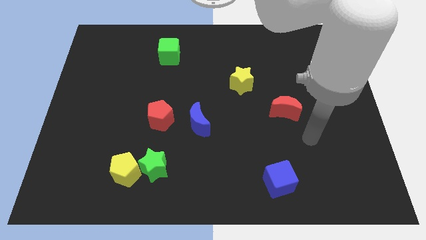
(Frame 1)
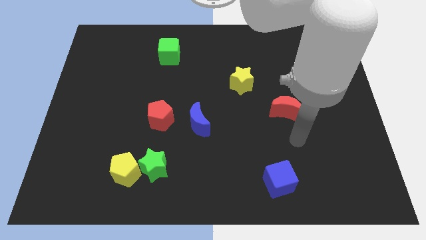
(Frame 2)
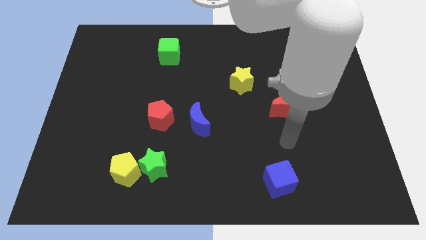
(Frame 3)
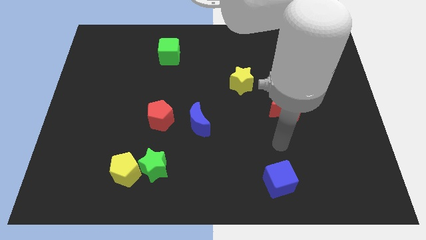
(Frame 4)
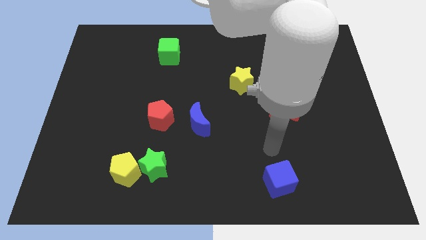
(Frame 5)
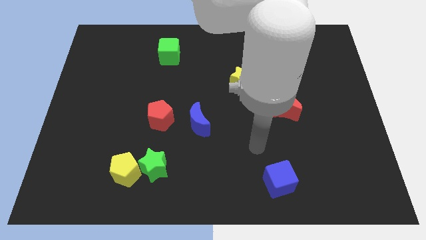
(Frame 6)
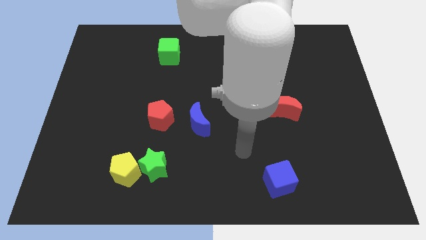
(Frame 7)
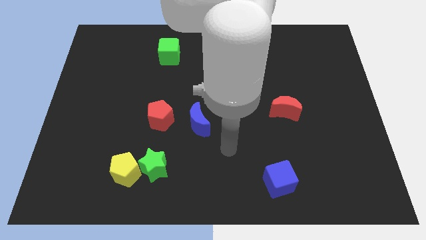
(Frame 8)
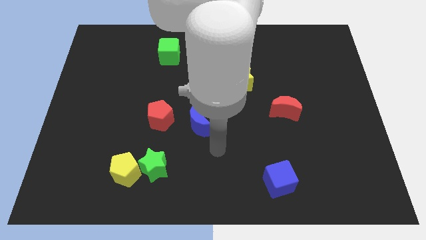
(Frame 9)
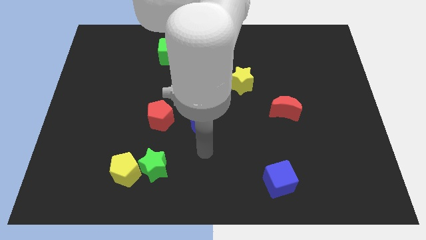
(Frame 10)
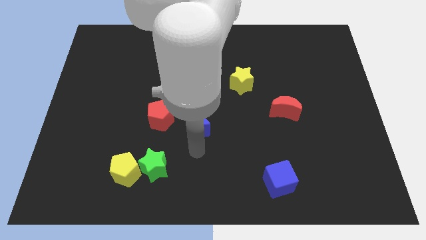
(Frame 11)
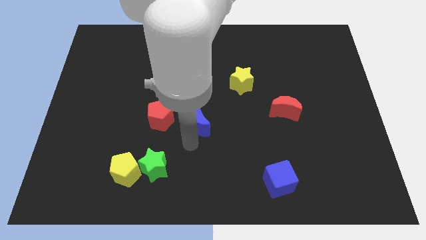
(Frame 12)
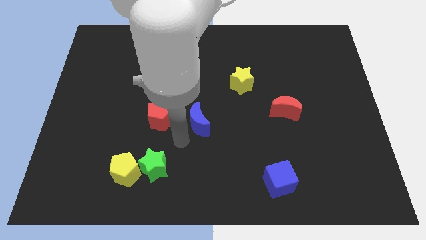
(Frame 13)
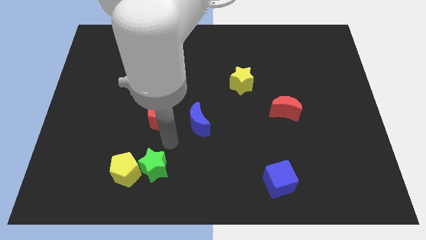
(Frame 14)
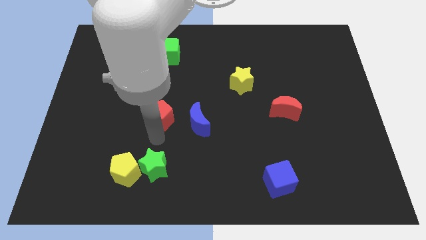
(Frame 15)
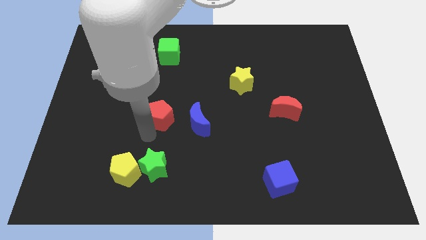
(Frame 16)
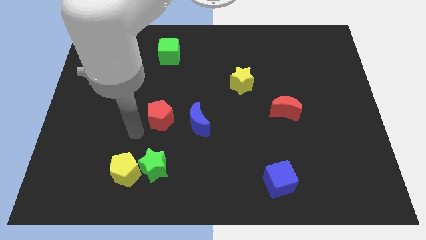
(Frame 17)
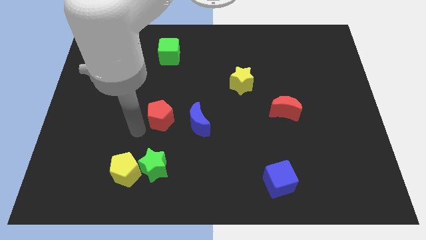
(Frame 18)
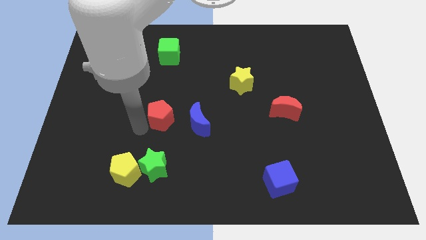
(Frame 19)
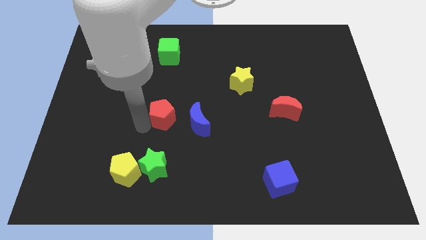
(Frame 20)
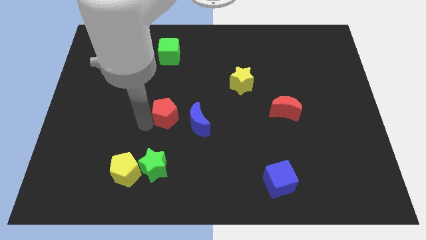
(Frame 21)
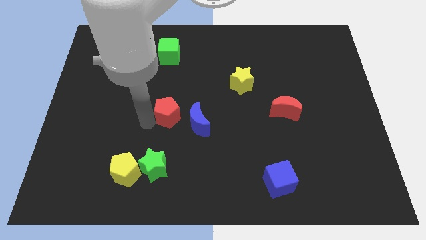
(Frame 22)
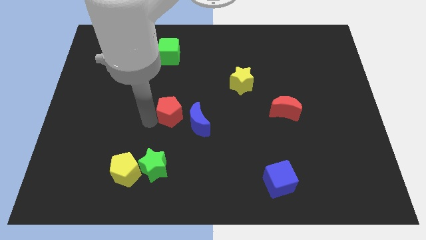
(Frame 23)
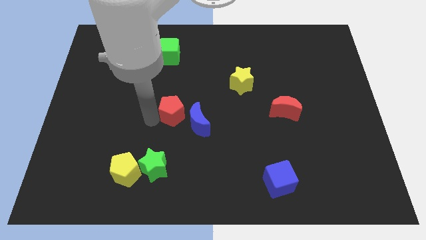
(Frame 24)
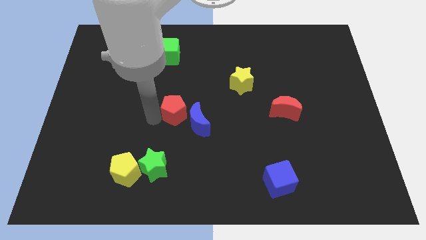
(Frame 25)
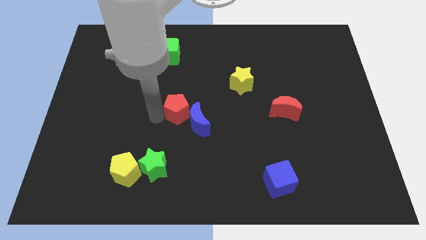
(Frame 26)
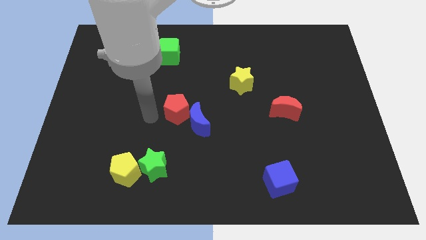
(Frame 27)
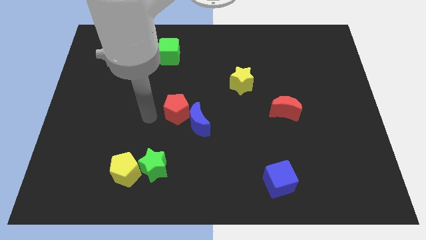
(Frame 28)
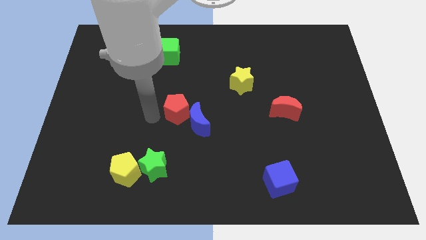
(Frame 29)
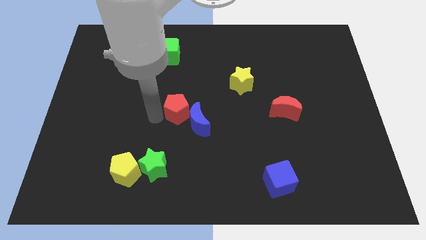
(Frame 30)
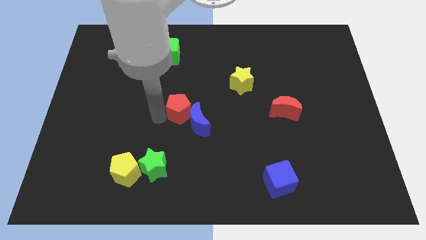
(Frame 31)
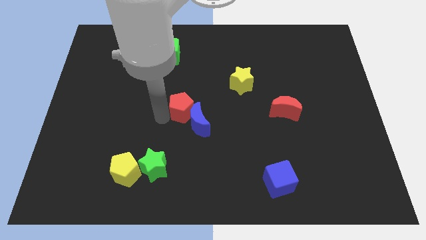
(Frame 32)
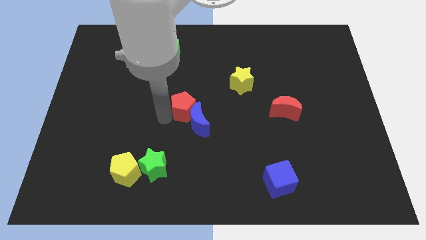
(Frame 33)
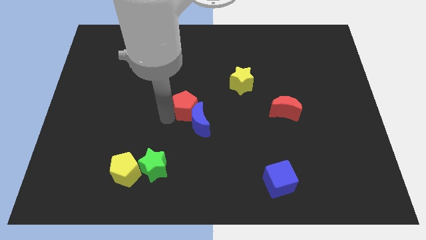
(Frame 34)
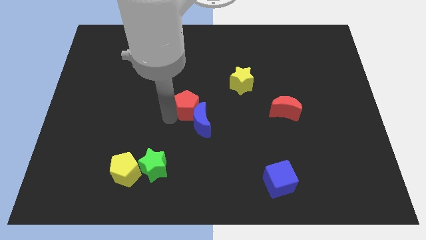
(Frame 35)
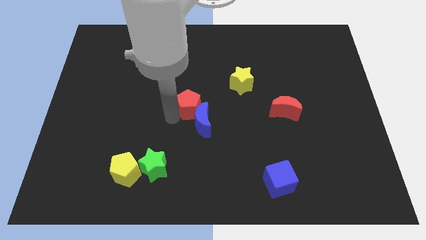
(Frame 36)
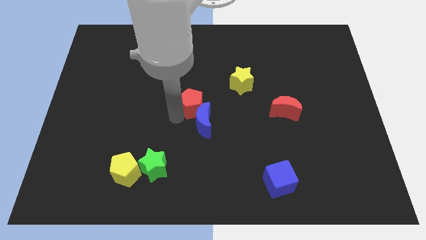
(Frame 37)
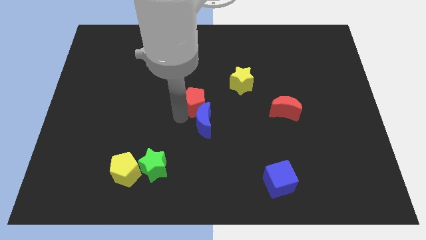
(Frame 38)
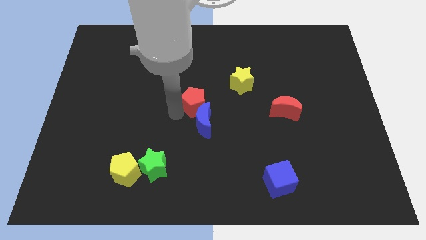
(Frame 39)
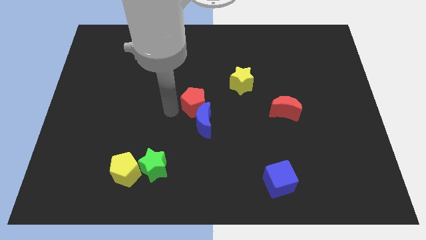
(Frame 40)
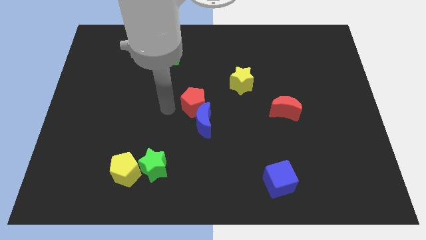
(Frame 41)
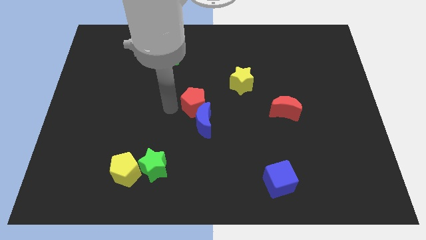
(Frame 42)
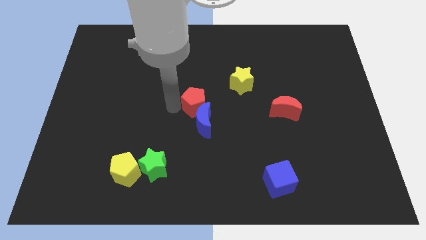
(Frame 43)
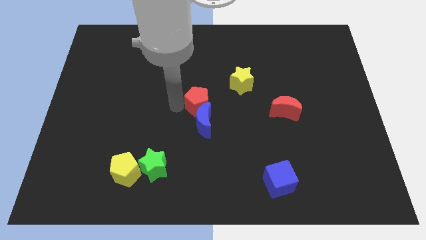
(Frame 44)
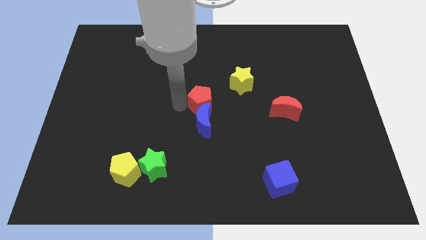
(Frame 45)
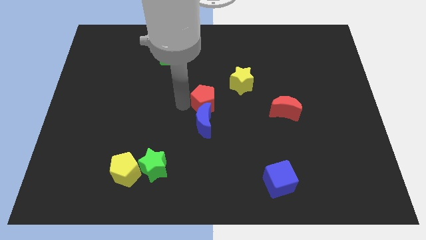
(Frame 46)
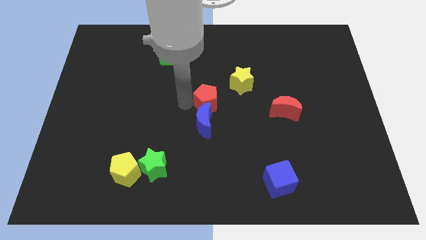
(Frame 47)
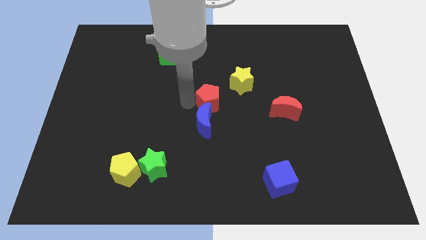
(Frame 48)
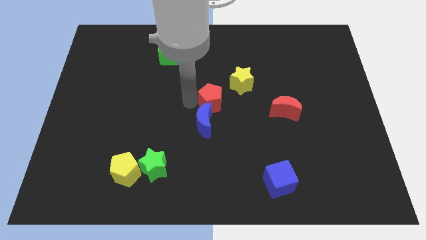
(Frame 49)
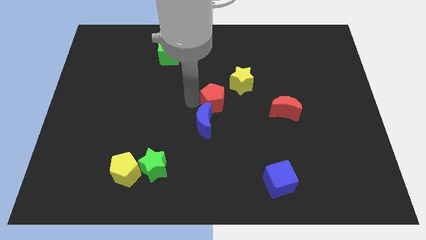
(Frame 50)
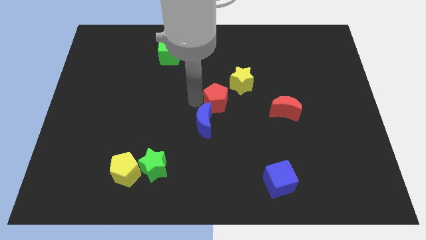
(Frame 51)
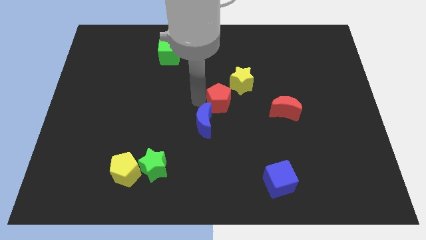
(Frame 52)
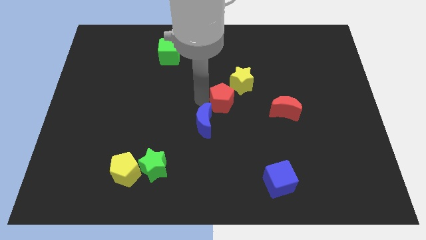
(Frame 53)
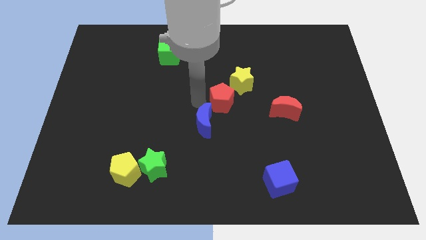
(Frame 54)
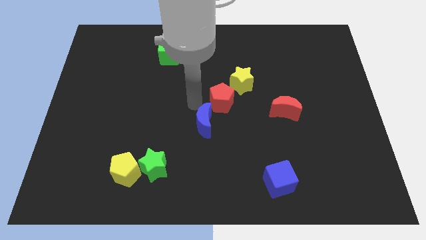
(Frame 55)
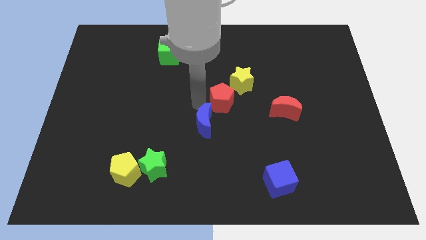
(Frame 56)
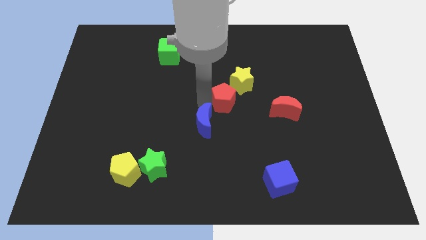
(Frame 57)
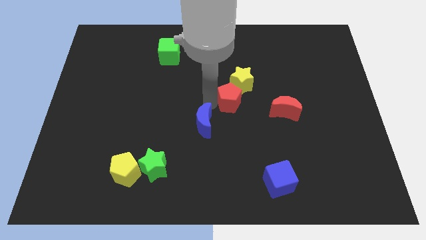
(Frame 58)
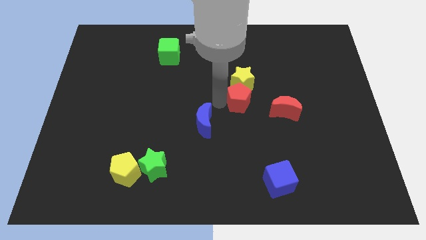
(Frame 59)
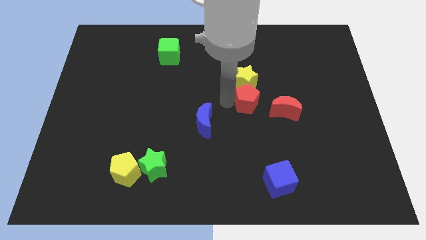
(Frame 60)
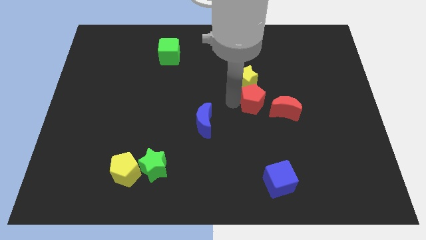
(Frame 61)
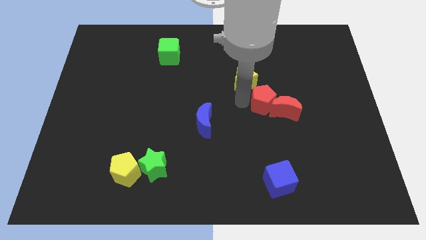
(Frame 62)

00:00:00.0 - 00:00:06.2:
move the red pentagon next to the red moon
